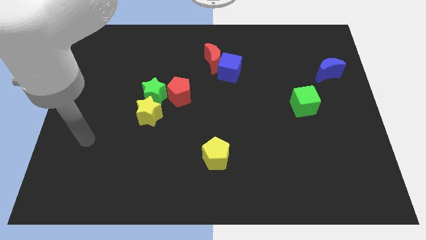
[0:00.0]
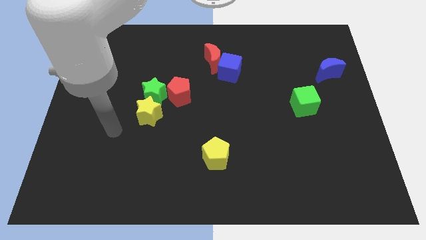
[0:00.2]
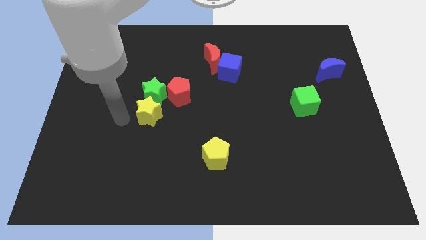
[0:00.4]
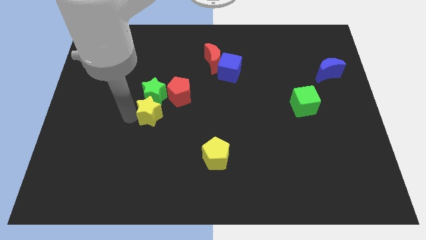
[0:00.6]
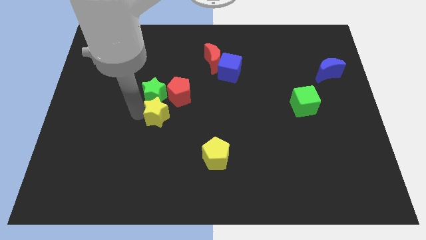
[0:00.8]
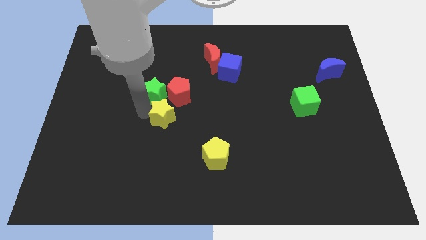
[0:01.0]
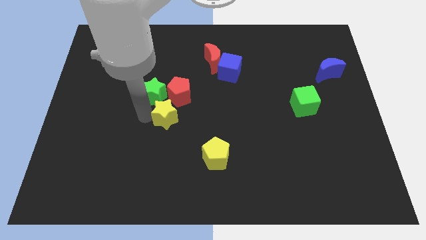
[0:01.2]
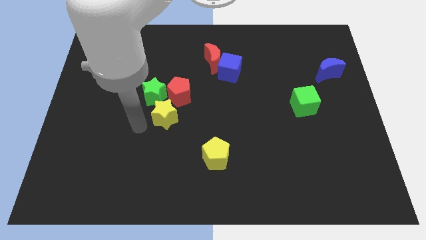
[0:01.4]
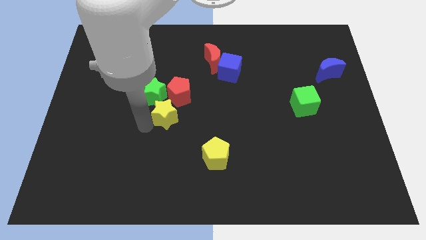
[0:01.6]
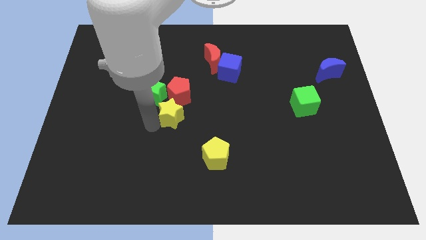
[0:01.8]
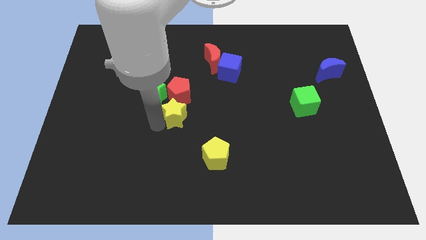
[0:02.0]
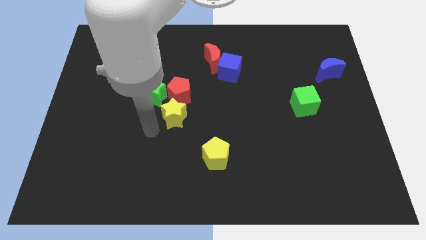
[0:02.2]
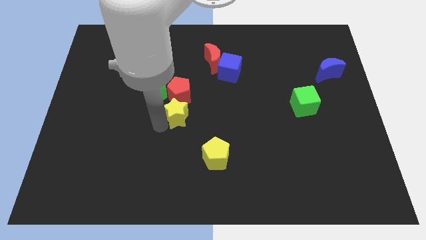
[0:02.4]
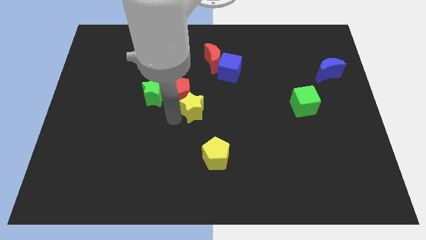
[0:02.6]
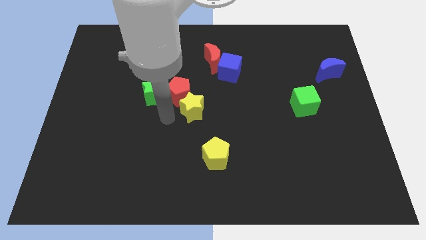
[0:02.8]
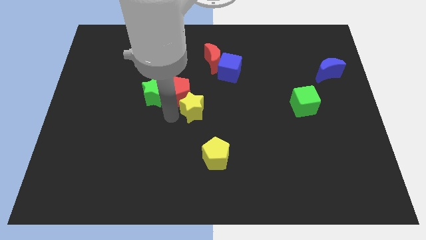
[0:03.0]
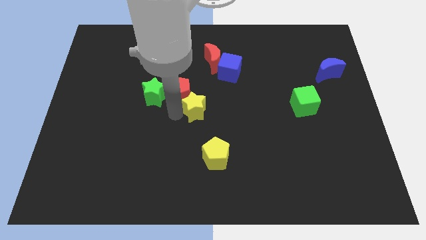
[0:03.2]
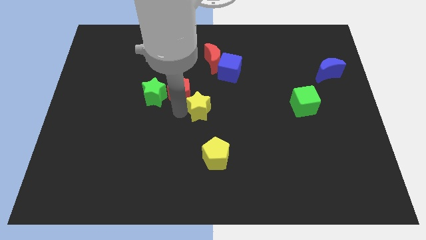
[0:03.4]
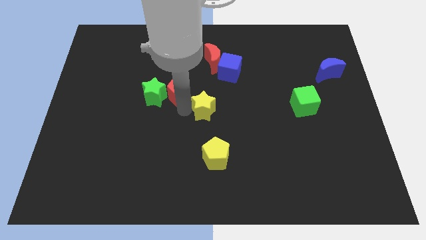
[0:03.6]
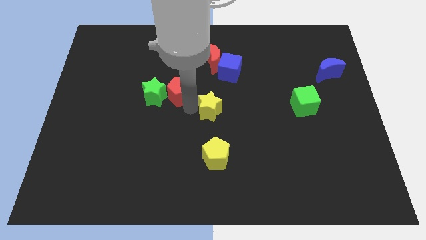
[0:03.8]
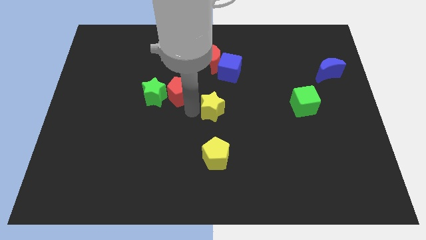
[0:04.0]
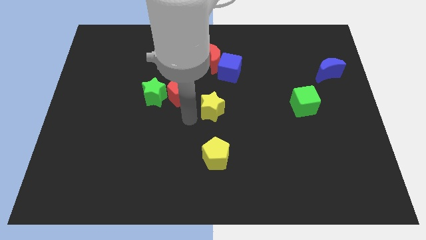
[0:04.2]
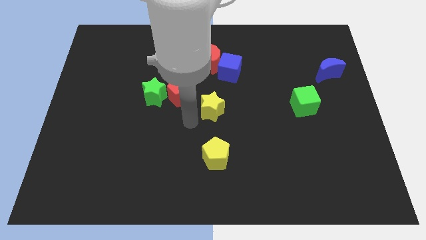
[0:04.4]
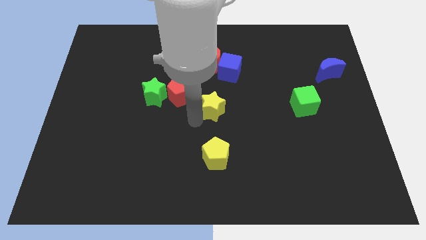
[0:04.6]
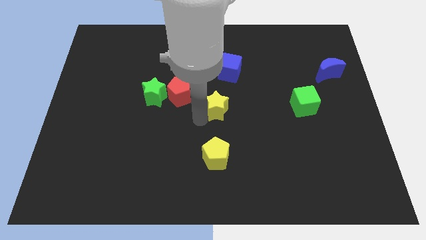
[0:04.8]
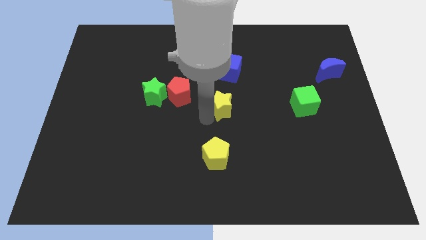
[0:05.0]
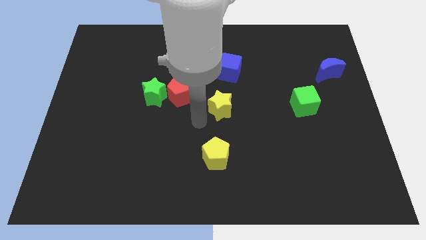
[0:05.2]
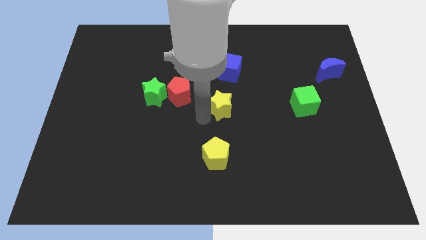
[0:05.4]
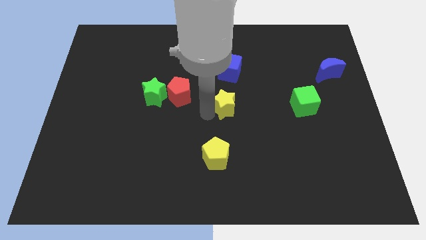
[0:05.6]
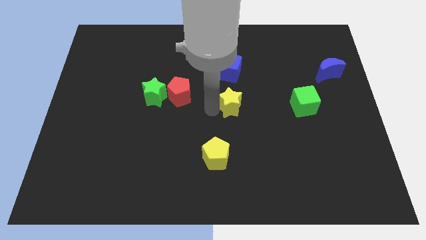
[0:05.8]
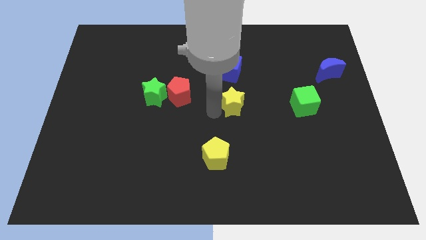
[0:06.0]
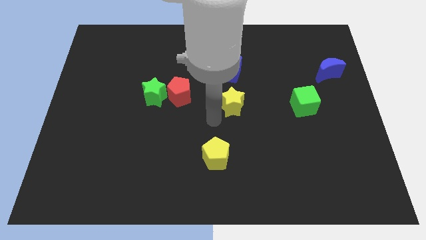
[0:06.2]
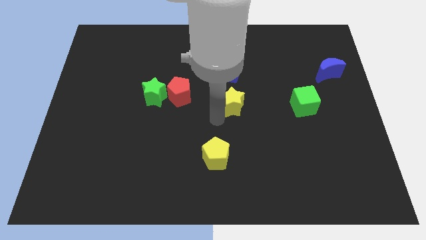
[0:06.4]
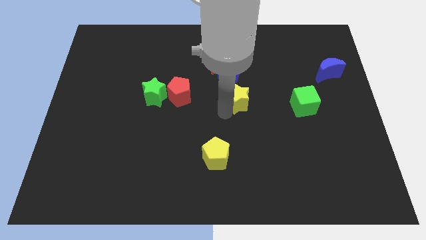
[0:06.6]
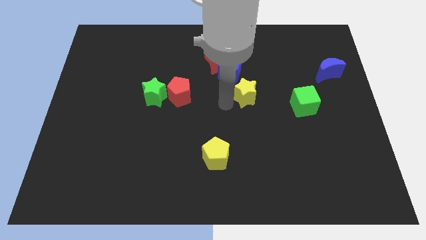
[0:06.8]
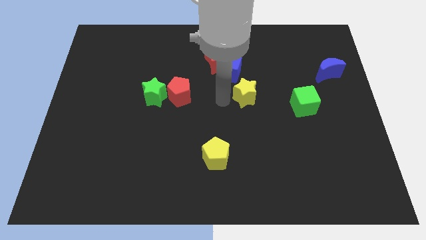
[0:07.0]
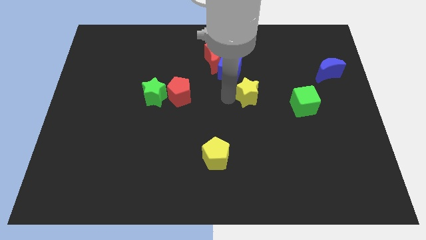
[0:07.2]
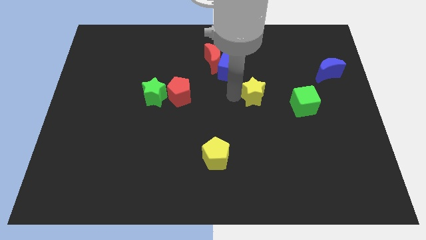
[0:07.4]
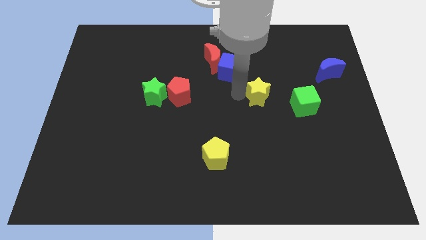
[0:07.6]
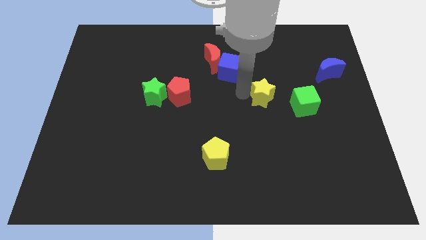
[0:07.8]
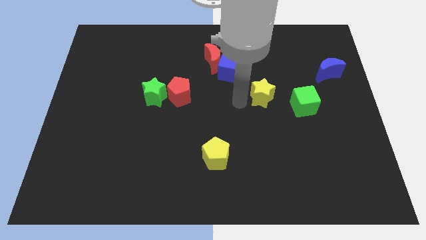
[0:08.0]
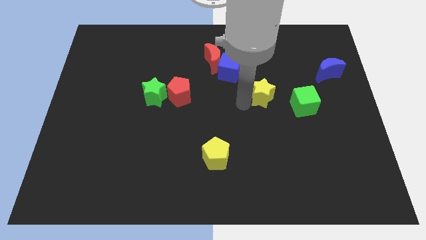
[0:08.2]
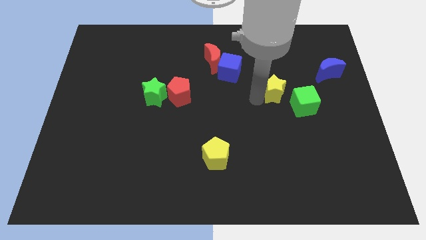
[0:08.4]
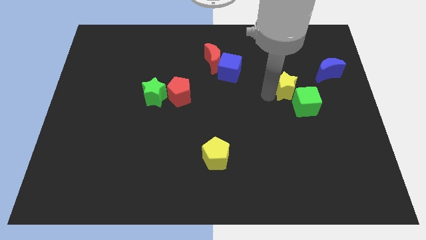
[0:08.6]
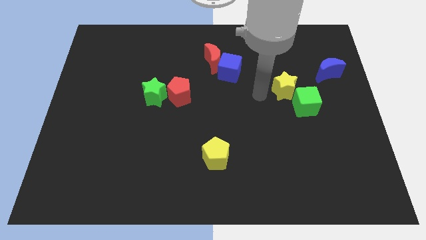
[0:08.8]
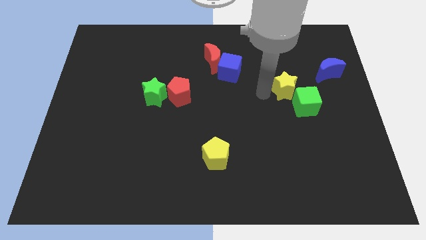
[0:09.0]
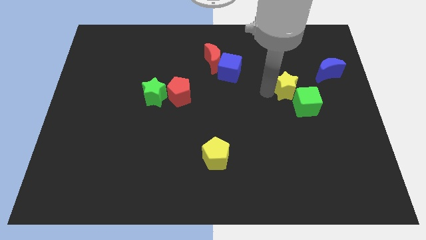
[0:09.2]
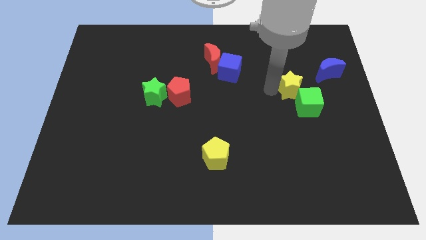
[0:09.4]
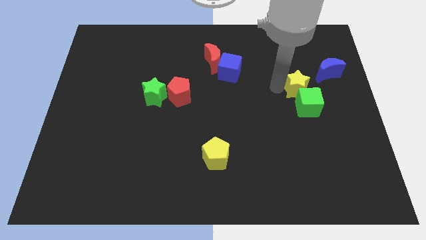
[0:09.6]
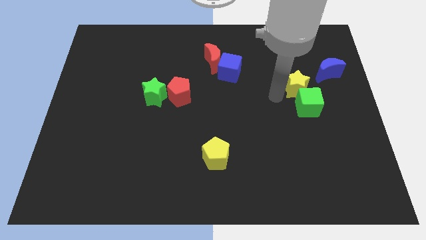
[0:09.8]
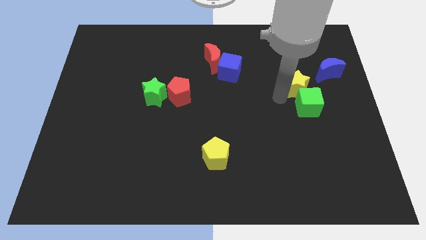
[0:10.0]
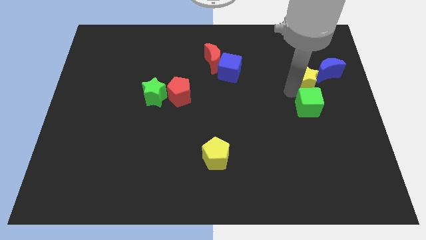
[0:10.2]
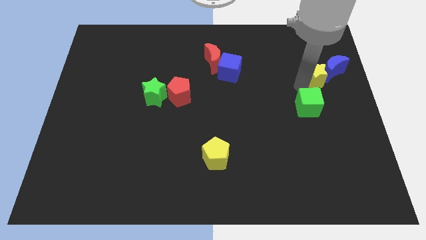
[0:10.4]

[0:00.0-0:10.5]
push the yellow star to the blue moon

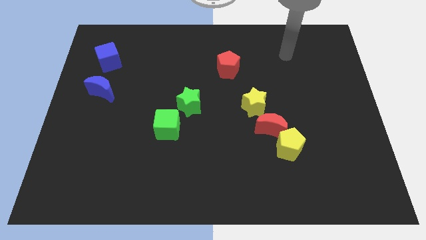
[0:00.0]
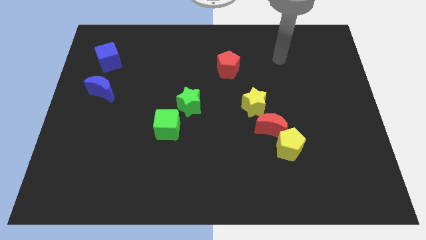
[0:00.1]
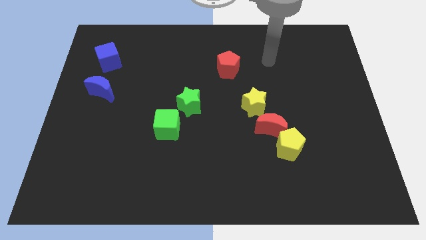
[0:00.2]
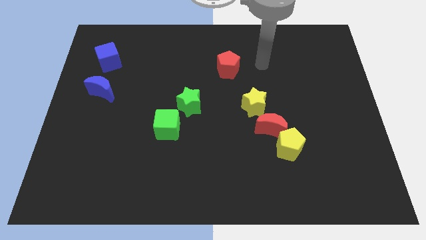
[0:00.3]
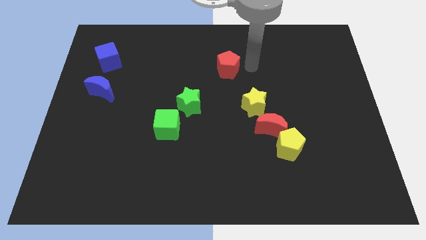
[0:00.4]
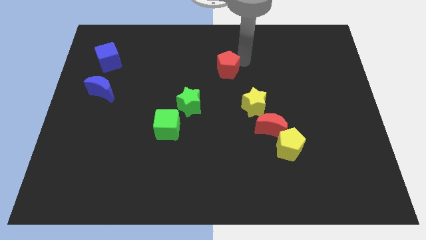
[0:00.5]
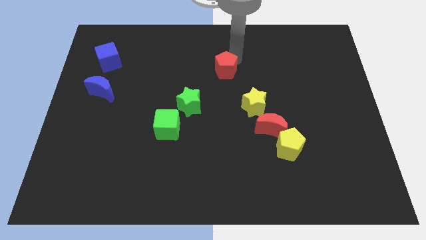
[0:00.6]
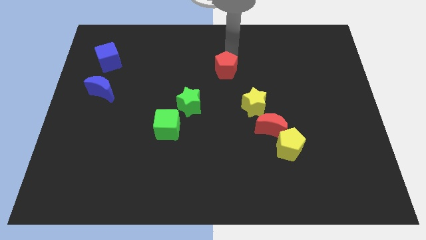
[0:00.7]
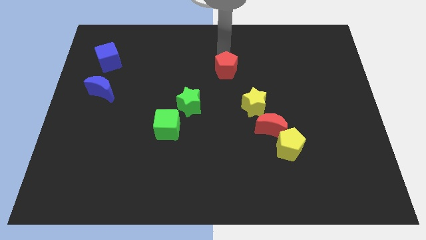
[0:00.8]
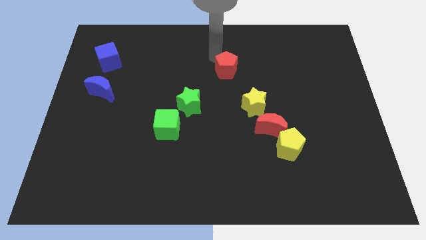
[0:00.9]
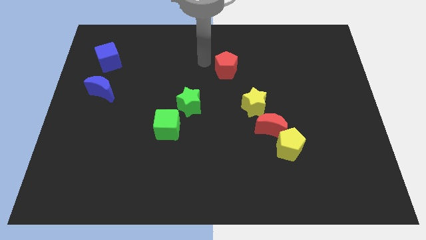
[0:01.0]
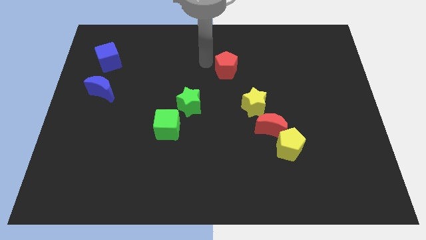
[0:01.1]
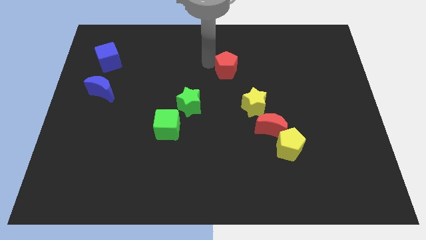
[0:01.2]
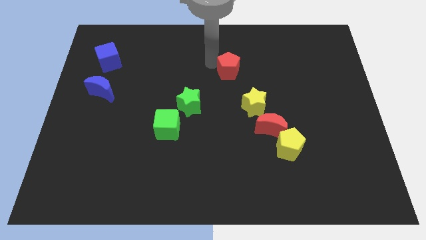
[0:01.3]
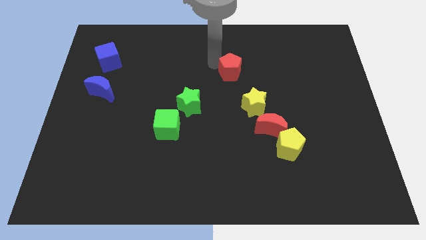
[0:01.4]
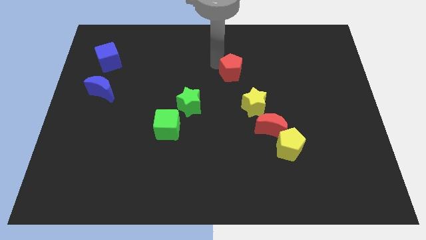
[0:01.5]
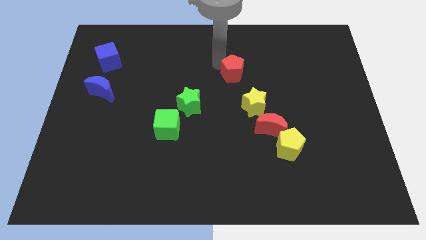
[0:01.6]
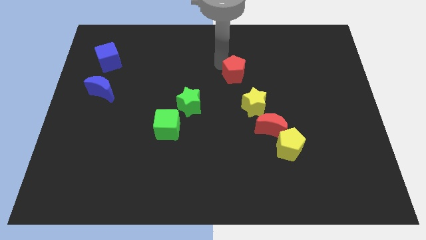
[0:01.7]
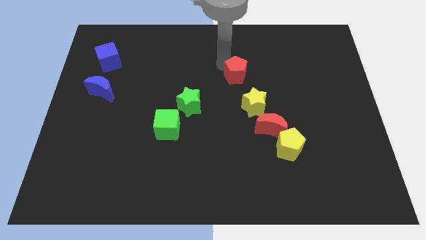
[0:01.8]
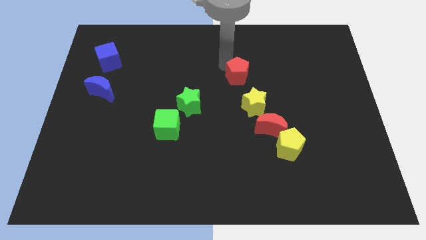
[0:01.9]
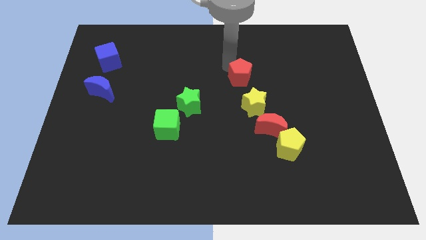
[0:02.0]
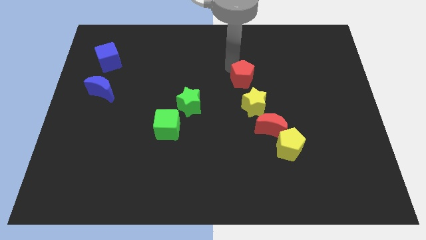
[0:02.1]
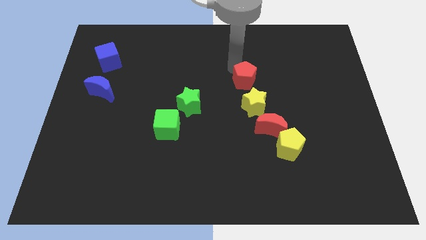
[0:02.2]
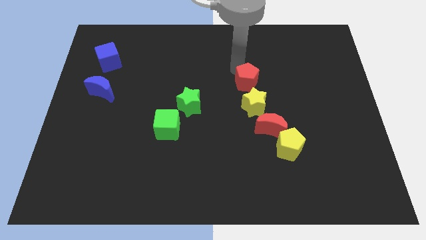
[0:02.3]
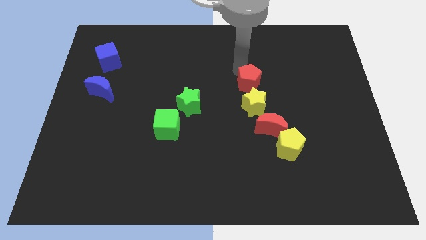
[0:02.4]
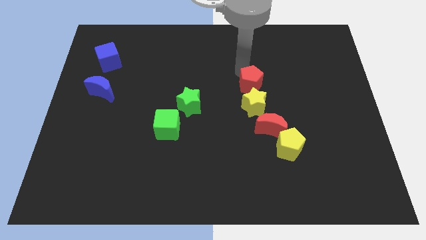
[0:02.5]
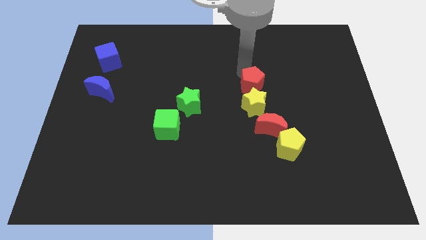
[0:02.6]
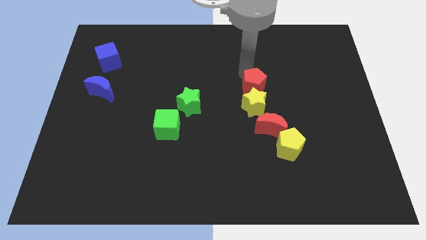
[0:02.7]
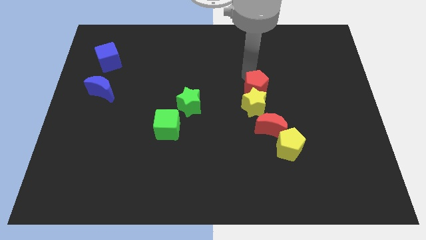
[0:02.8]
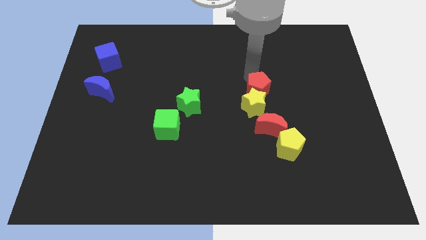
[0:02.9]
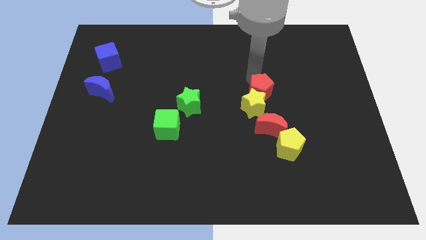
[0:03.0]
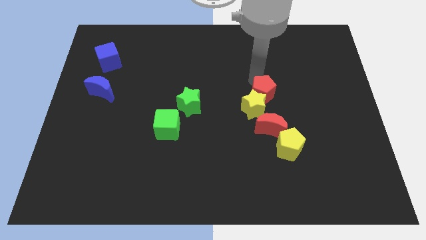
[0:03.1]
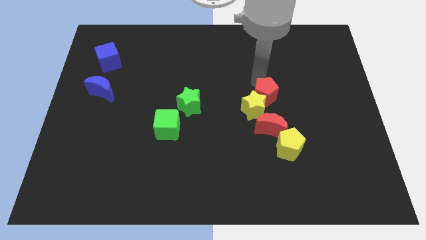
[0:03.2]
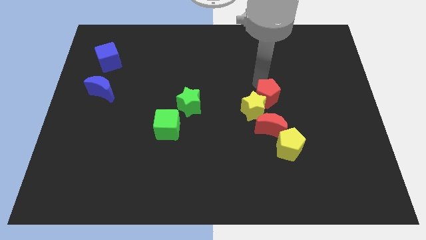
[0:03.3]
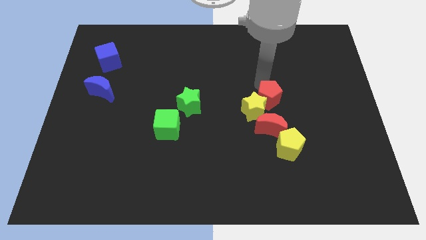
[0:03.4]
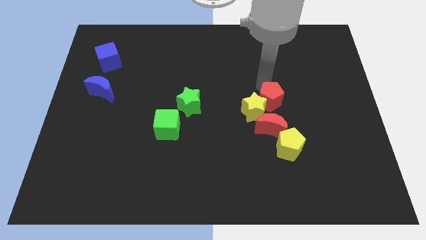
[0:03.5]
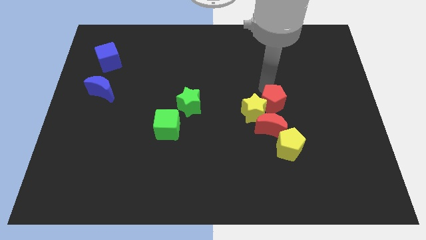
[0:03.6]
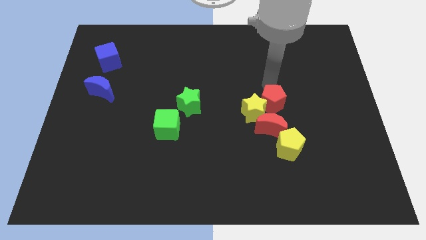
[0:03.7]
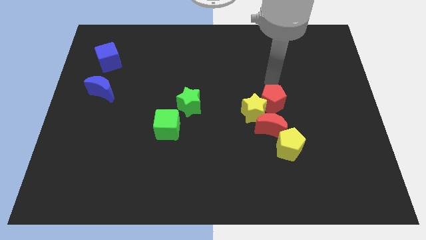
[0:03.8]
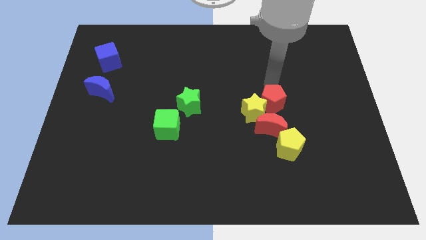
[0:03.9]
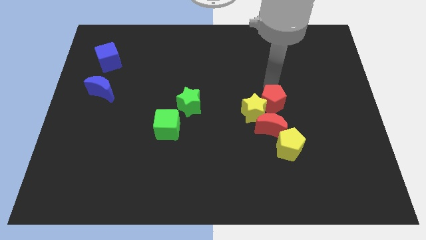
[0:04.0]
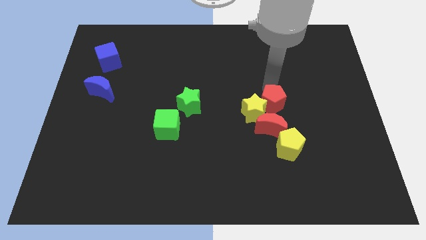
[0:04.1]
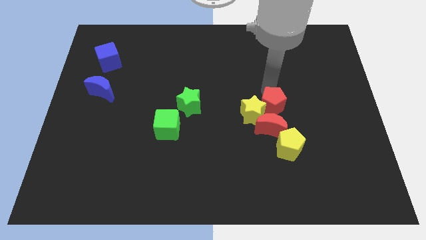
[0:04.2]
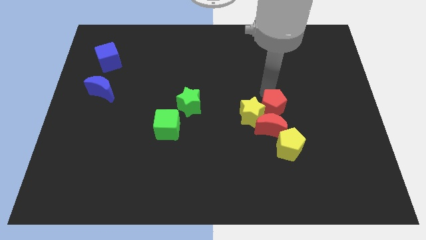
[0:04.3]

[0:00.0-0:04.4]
put the red pentagon next to the red moon
